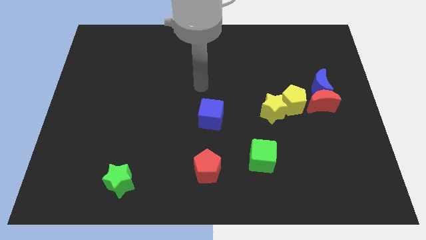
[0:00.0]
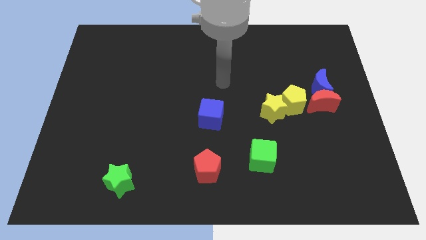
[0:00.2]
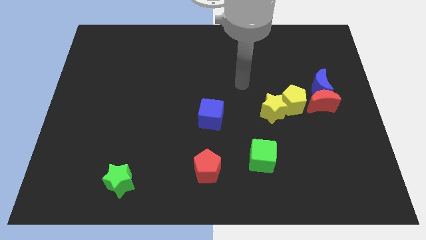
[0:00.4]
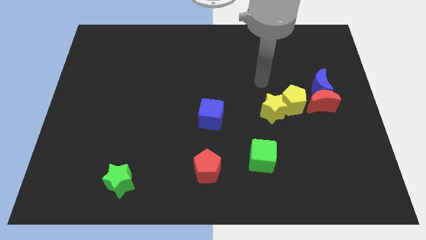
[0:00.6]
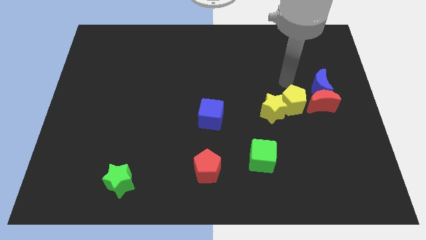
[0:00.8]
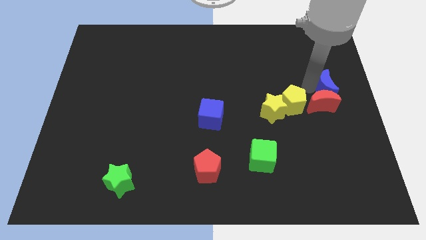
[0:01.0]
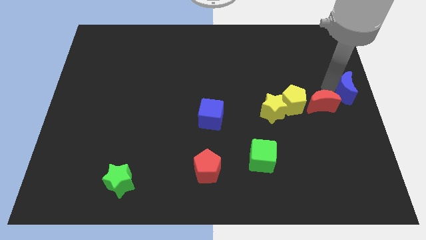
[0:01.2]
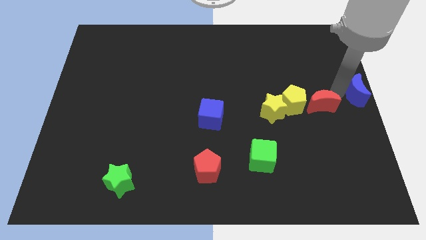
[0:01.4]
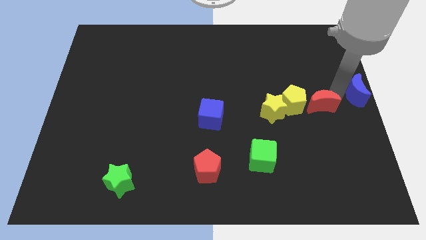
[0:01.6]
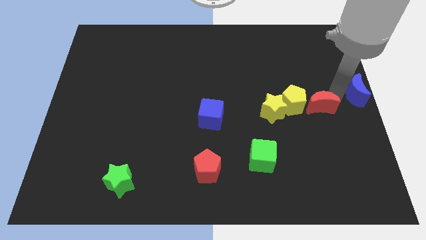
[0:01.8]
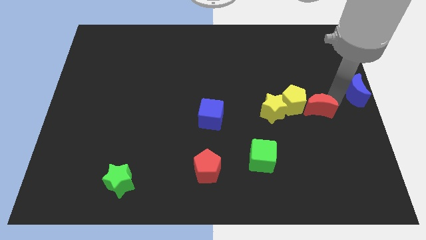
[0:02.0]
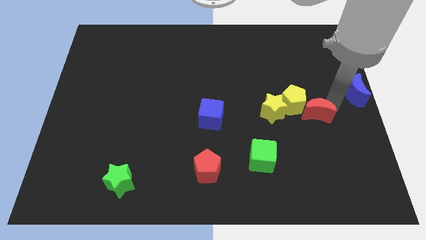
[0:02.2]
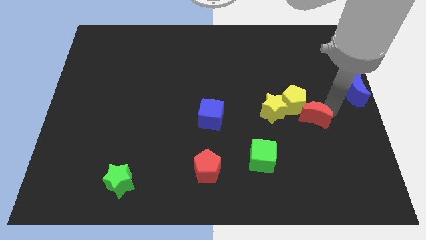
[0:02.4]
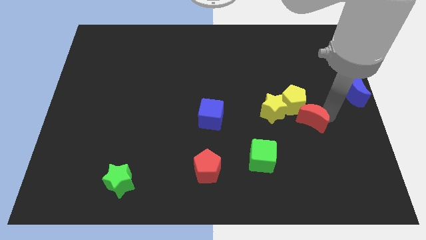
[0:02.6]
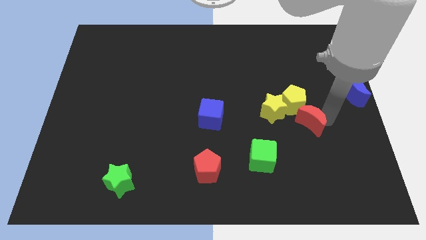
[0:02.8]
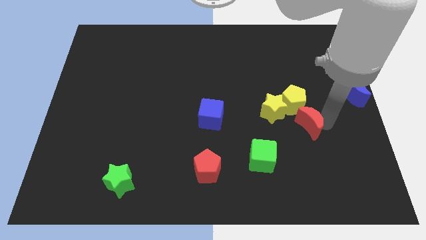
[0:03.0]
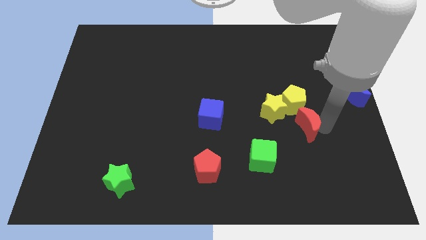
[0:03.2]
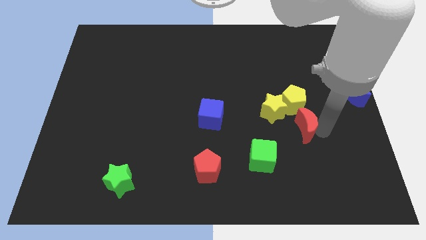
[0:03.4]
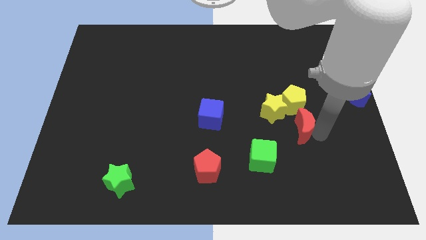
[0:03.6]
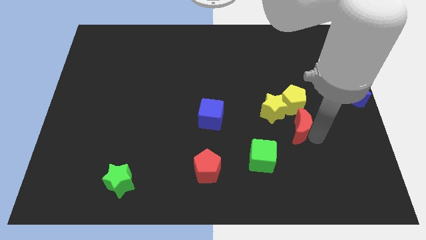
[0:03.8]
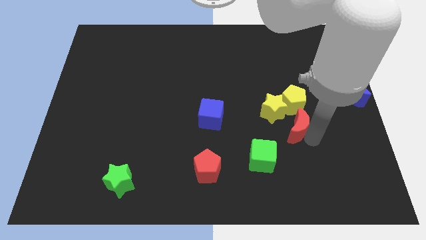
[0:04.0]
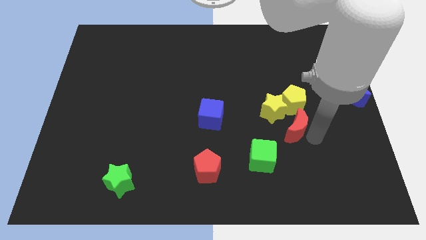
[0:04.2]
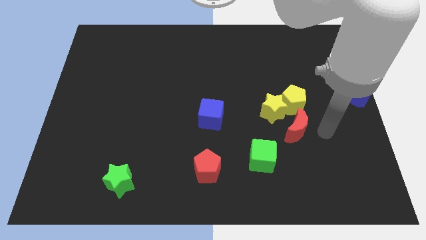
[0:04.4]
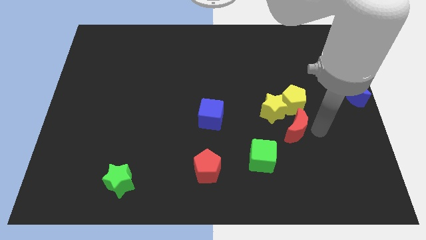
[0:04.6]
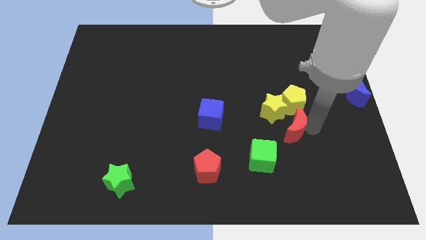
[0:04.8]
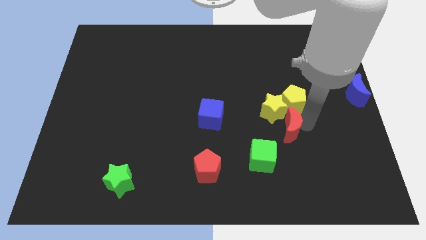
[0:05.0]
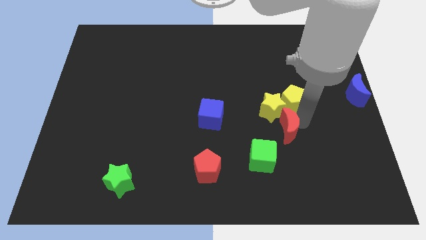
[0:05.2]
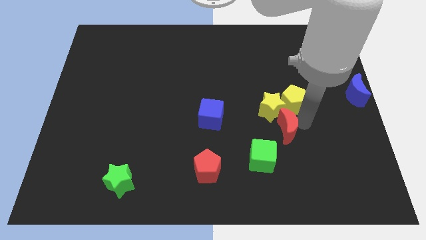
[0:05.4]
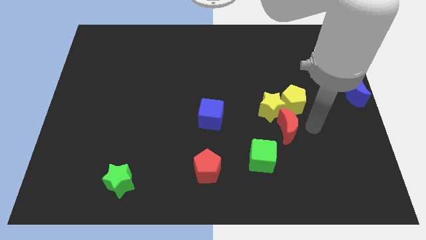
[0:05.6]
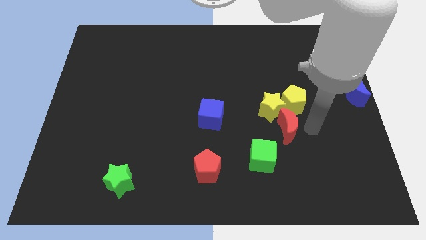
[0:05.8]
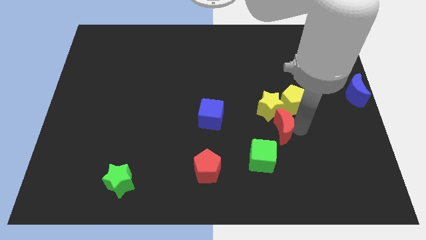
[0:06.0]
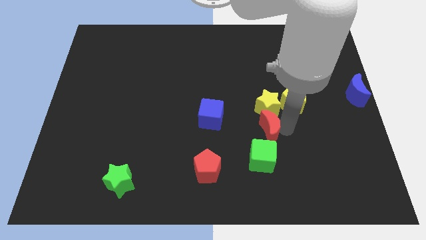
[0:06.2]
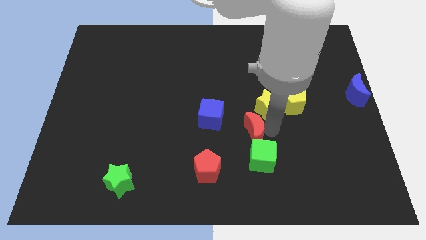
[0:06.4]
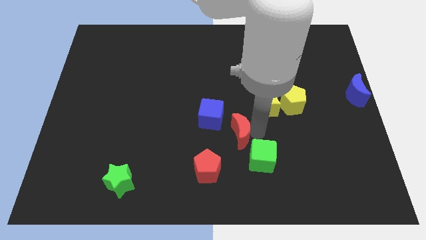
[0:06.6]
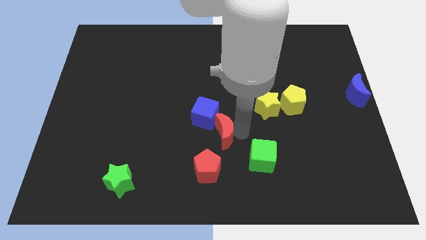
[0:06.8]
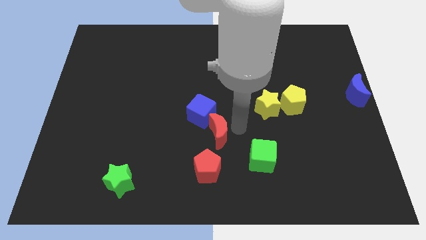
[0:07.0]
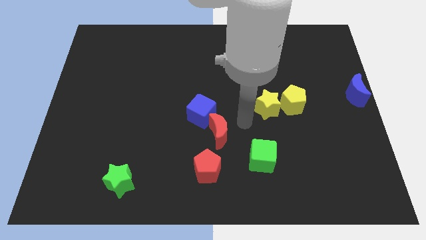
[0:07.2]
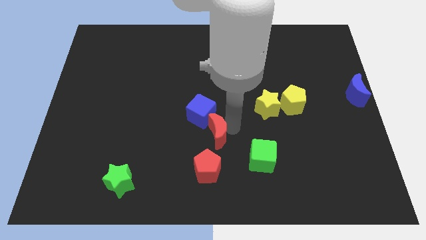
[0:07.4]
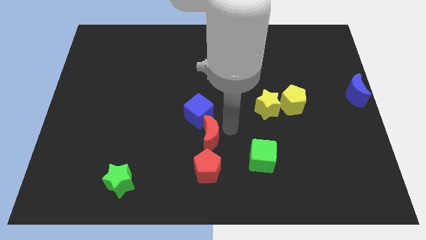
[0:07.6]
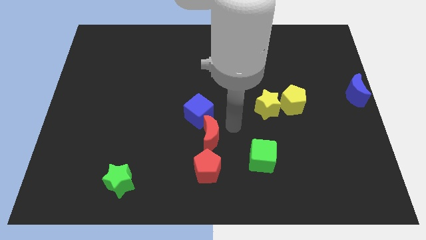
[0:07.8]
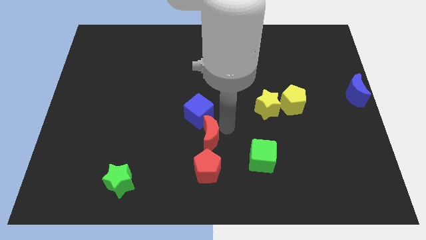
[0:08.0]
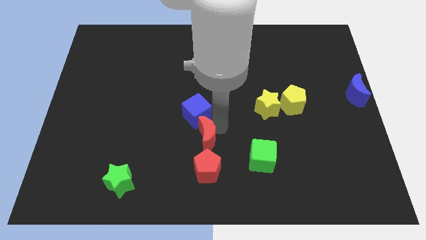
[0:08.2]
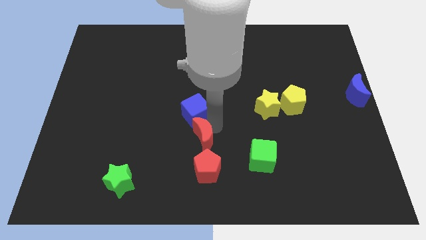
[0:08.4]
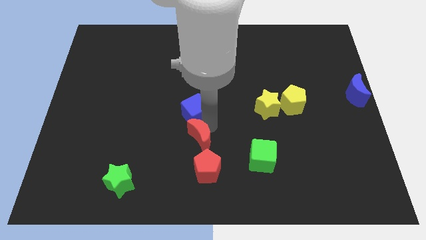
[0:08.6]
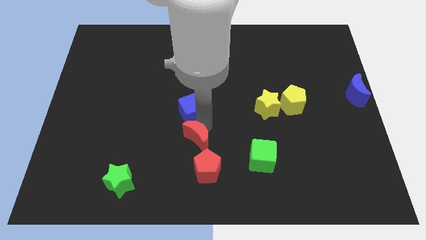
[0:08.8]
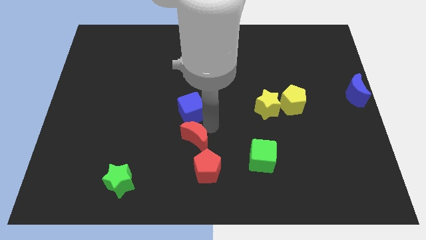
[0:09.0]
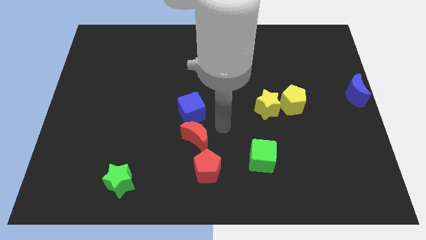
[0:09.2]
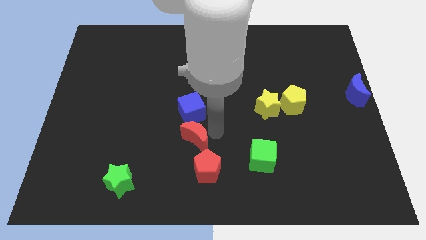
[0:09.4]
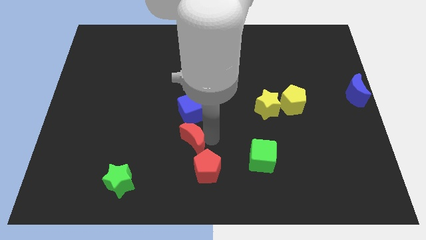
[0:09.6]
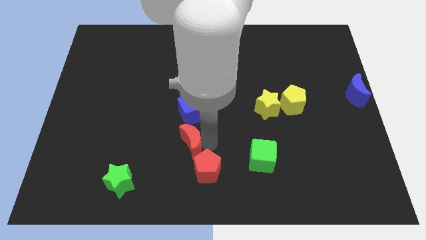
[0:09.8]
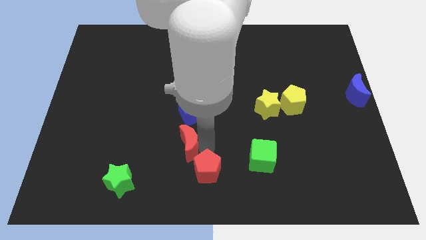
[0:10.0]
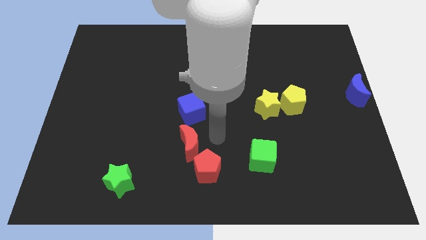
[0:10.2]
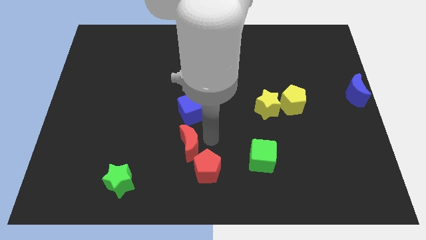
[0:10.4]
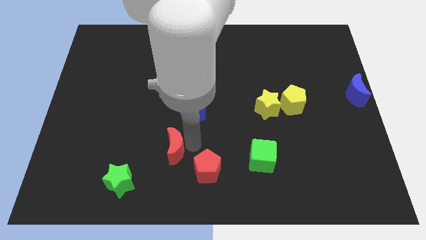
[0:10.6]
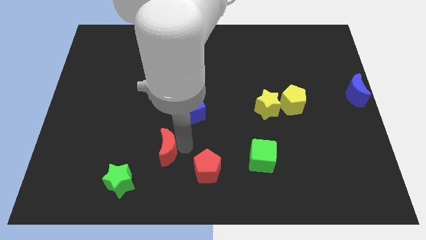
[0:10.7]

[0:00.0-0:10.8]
put the red moon diagonally up and to the right of the green star
